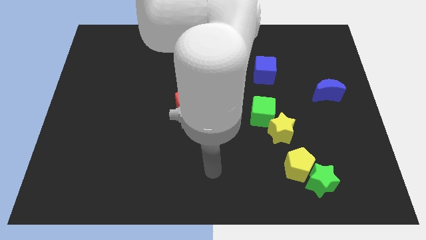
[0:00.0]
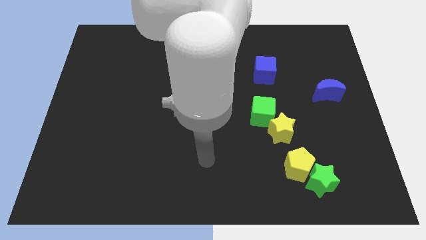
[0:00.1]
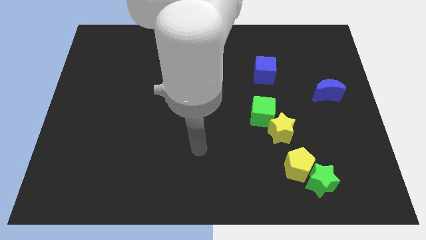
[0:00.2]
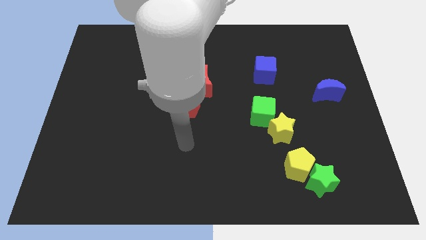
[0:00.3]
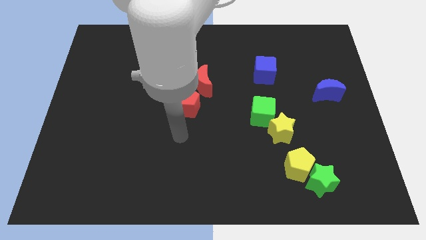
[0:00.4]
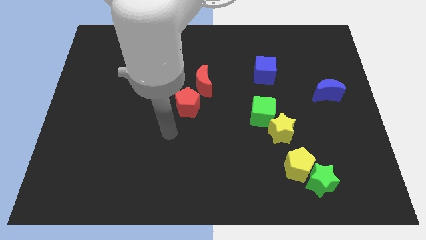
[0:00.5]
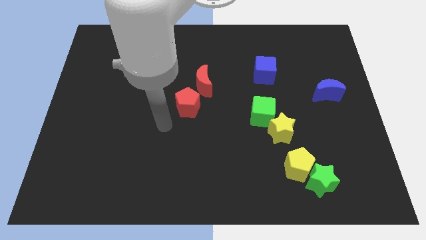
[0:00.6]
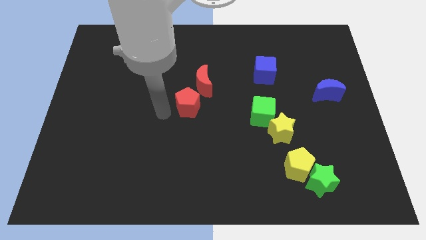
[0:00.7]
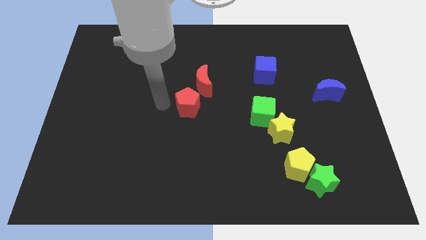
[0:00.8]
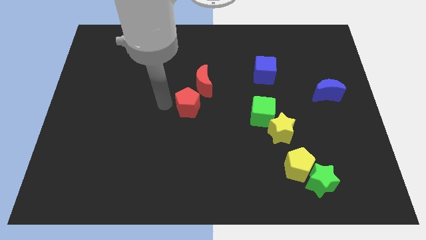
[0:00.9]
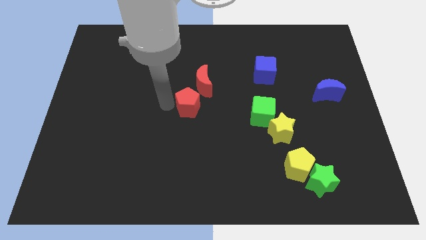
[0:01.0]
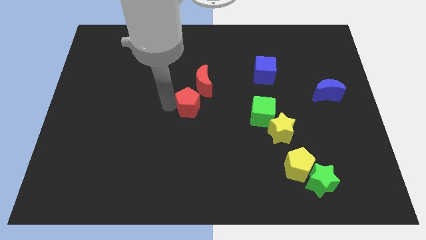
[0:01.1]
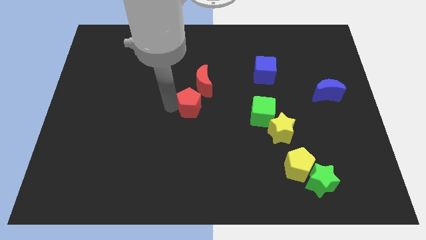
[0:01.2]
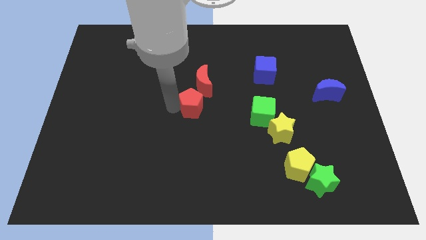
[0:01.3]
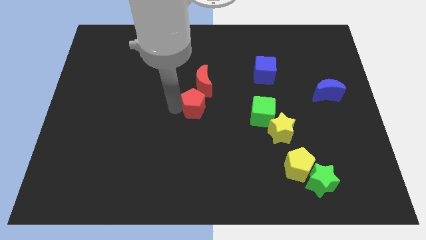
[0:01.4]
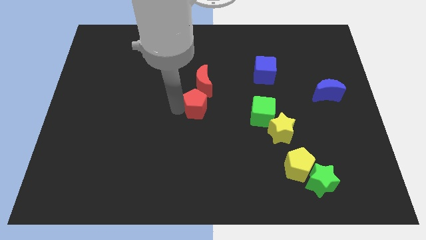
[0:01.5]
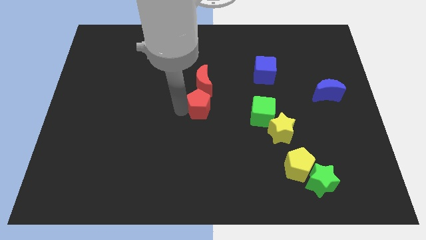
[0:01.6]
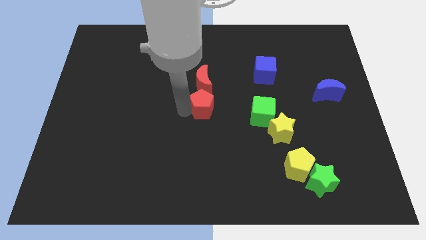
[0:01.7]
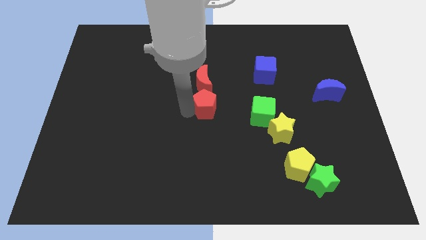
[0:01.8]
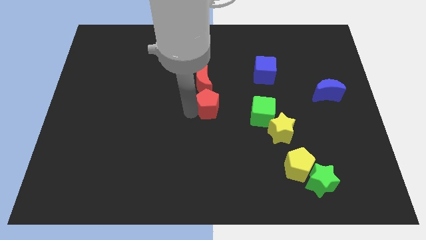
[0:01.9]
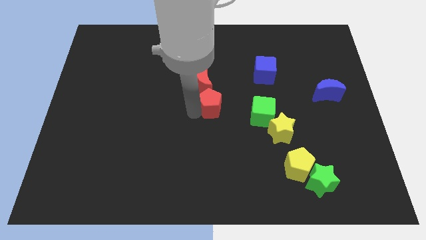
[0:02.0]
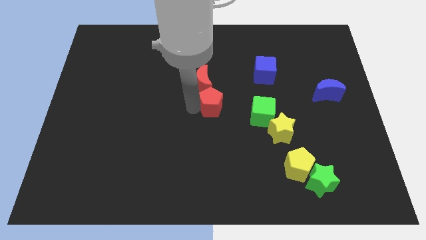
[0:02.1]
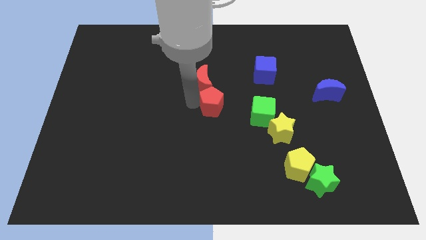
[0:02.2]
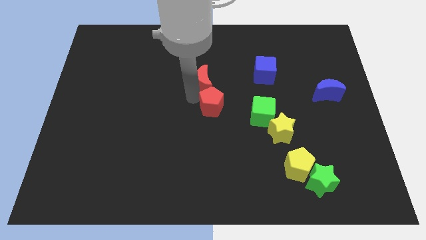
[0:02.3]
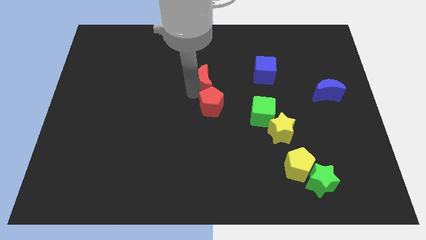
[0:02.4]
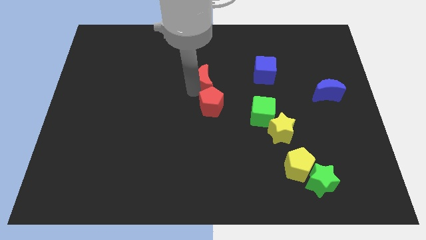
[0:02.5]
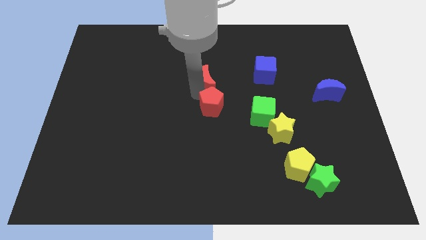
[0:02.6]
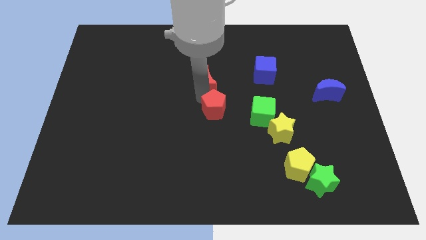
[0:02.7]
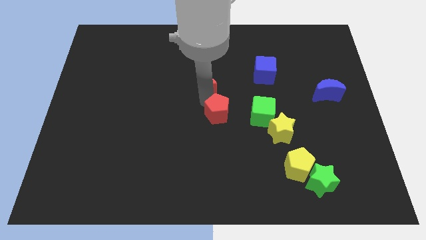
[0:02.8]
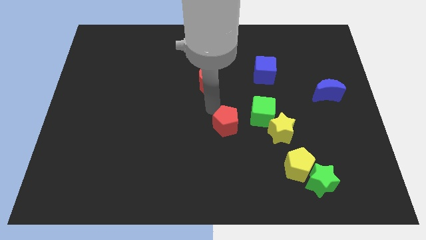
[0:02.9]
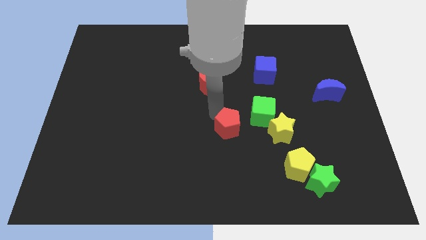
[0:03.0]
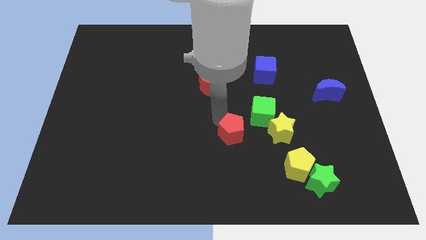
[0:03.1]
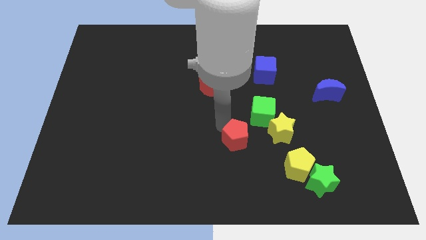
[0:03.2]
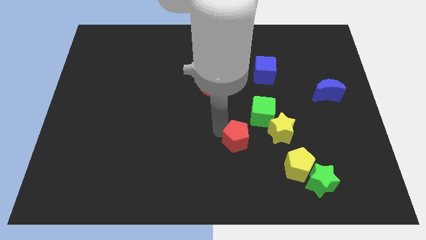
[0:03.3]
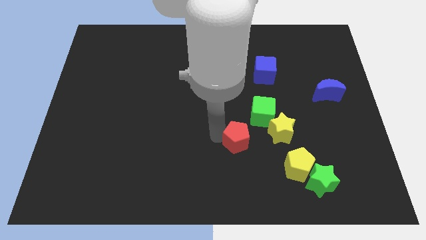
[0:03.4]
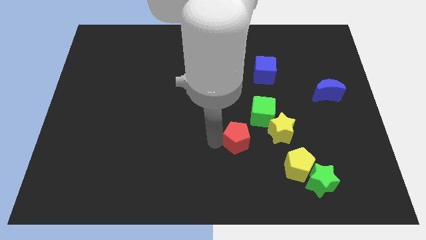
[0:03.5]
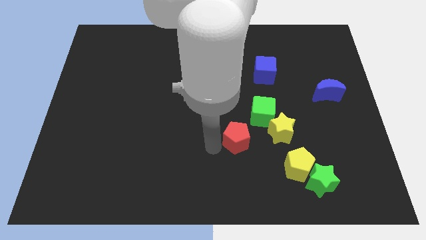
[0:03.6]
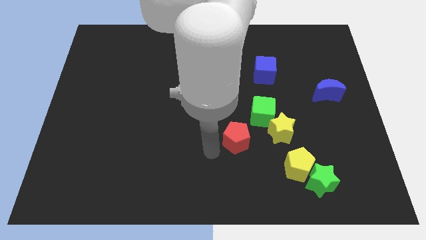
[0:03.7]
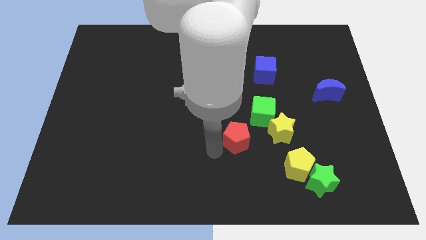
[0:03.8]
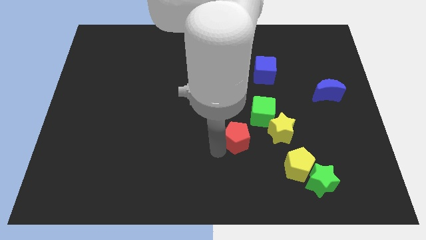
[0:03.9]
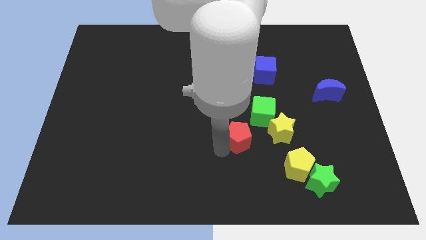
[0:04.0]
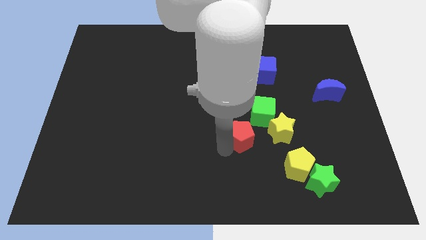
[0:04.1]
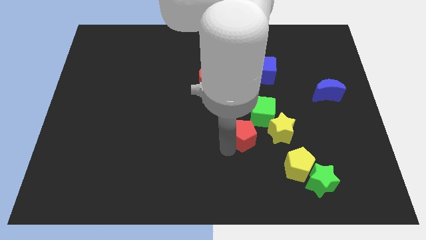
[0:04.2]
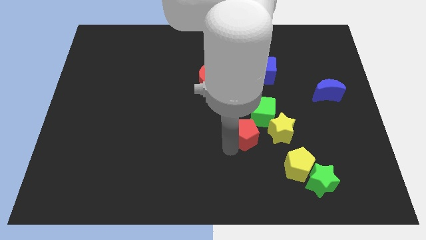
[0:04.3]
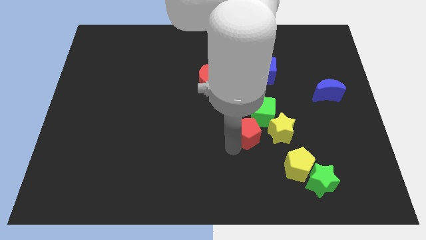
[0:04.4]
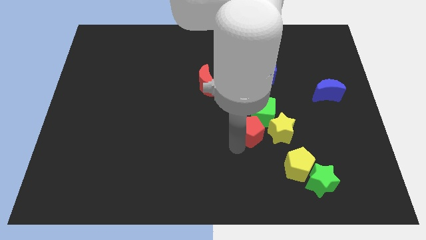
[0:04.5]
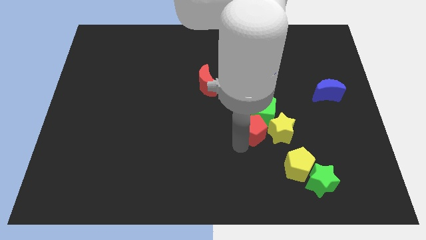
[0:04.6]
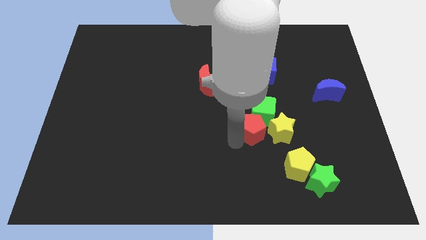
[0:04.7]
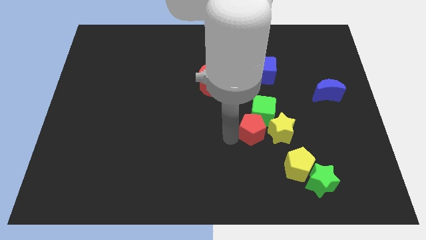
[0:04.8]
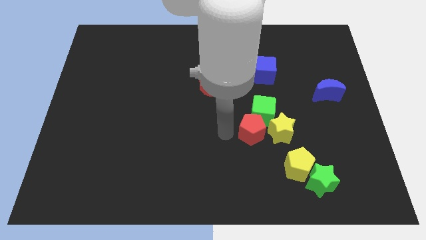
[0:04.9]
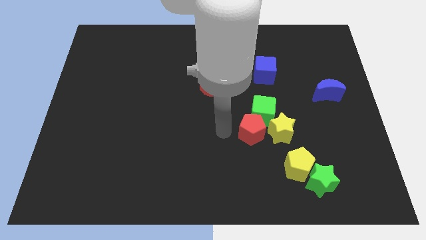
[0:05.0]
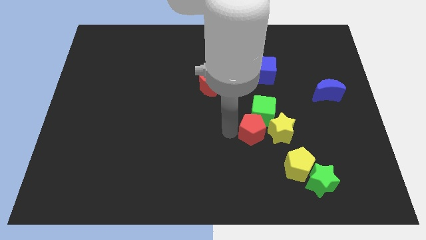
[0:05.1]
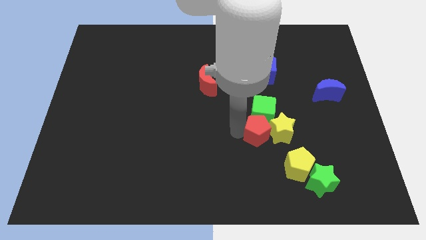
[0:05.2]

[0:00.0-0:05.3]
push the red pentagon next to the yellow star

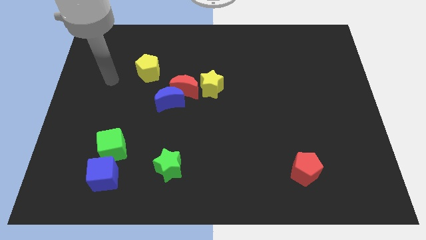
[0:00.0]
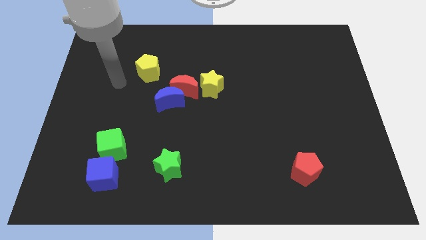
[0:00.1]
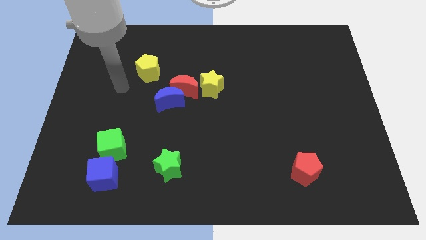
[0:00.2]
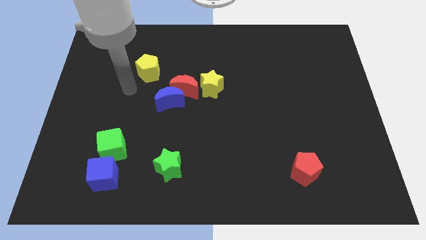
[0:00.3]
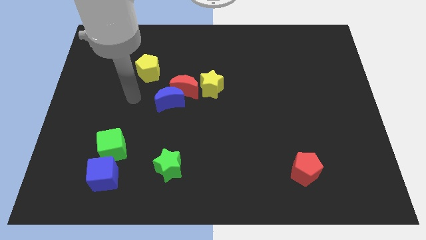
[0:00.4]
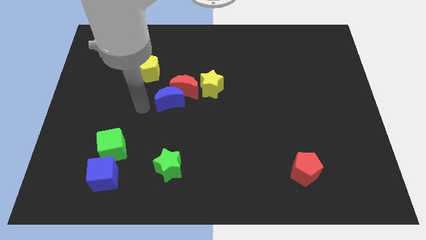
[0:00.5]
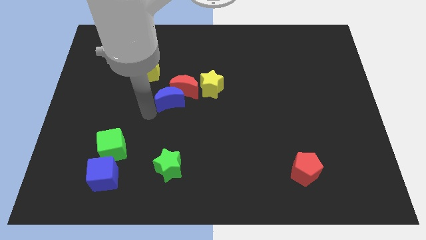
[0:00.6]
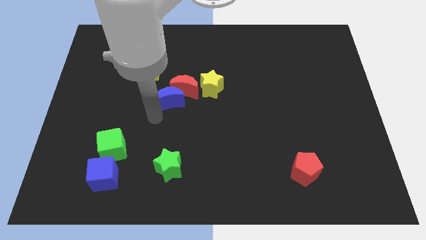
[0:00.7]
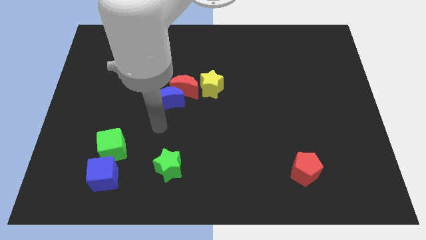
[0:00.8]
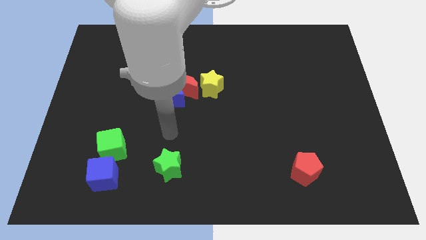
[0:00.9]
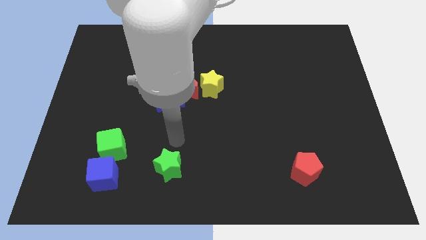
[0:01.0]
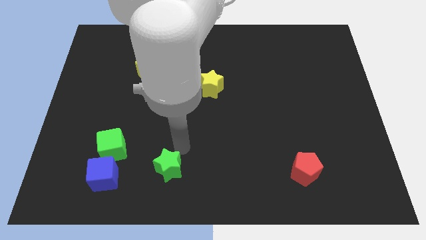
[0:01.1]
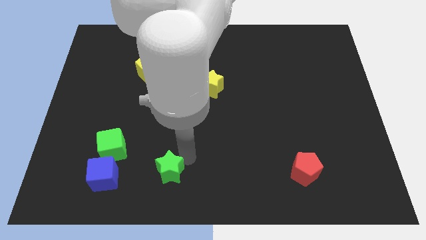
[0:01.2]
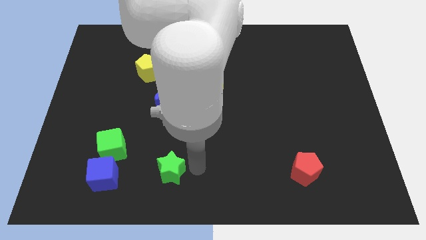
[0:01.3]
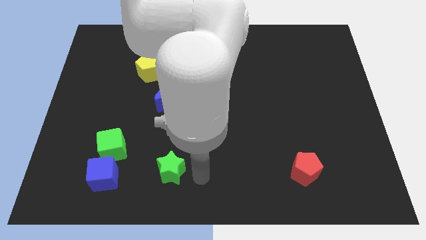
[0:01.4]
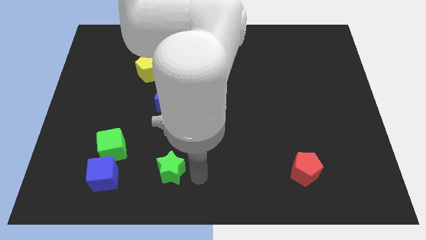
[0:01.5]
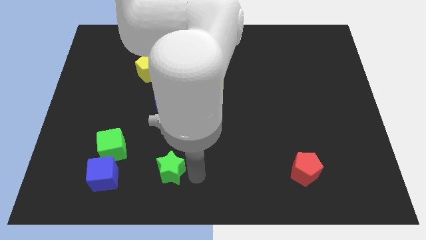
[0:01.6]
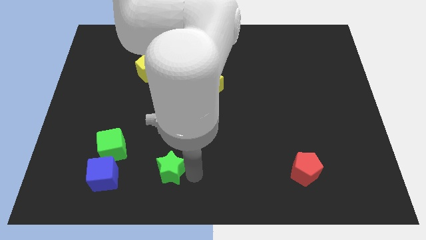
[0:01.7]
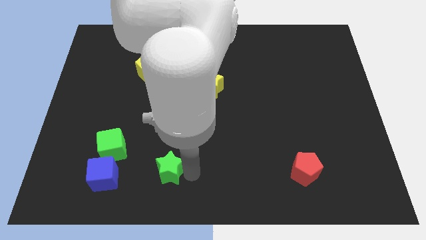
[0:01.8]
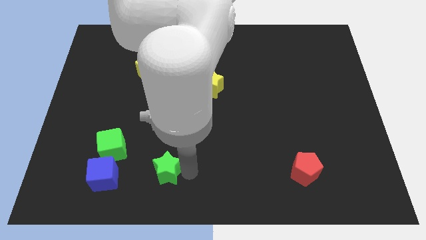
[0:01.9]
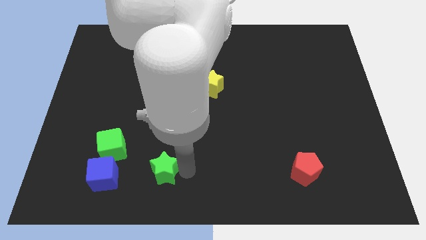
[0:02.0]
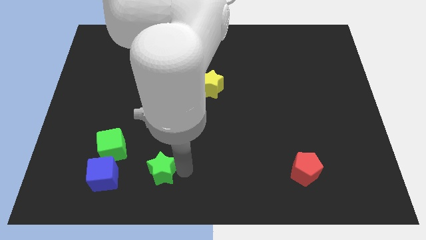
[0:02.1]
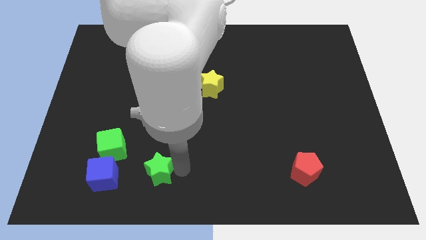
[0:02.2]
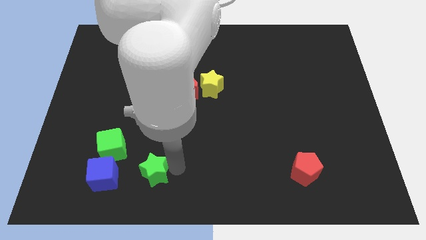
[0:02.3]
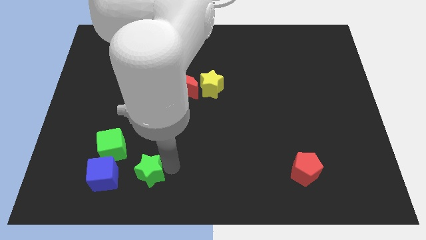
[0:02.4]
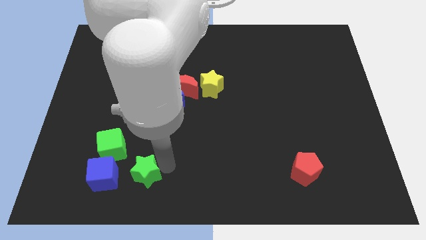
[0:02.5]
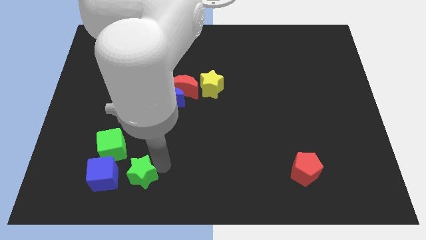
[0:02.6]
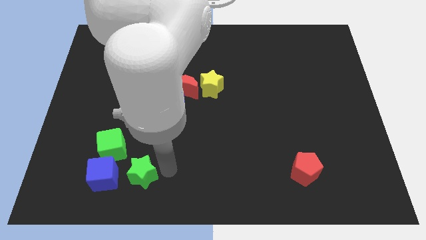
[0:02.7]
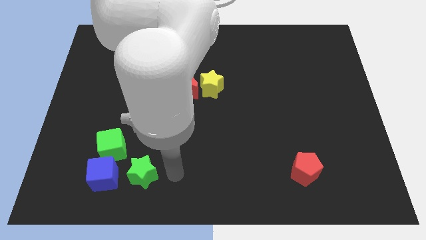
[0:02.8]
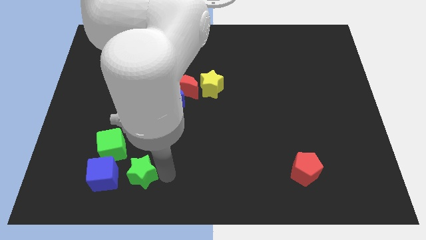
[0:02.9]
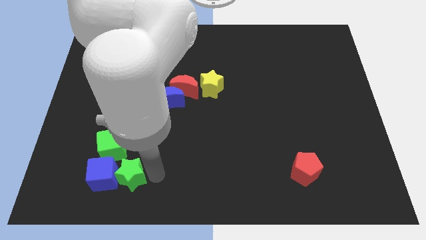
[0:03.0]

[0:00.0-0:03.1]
put the green star towards the blue cube
